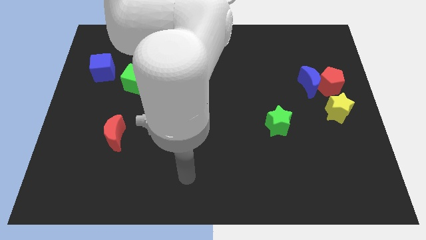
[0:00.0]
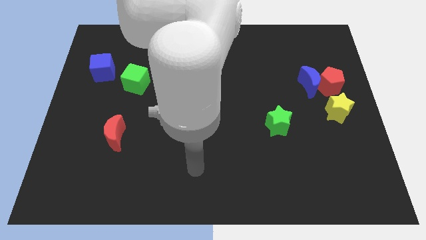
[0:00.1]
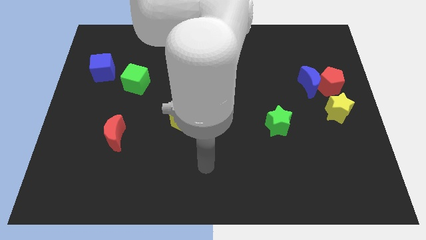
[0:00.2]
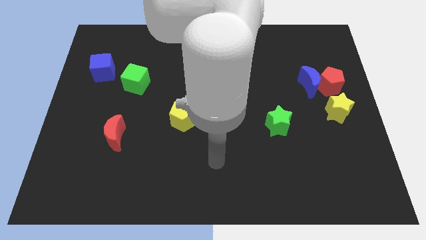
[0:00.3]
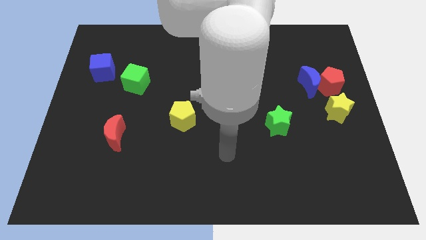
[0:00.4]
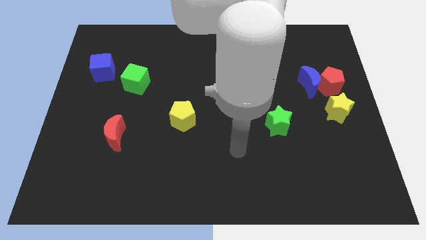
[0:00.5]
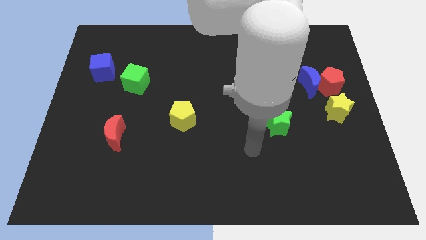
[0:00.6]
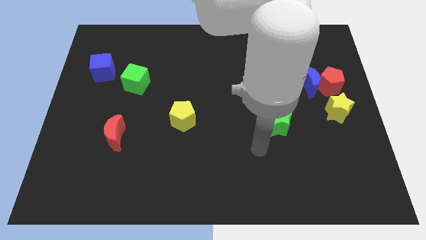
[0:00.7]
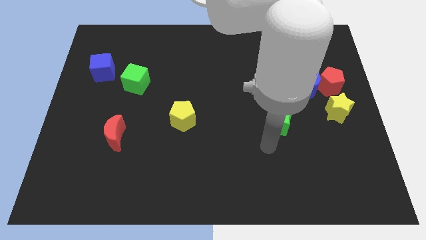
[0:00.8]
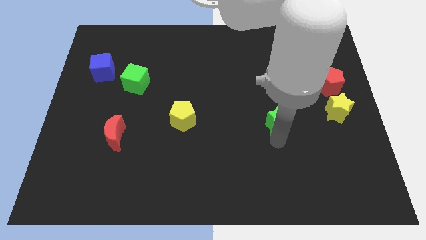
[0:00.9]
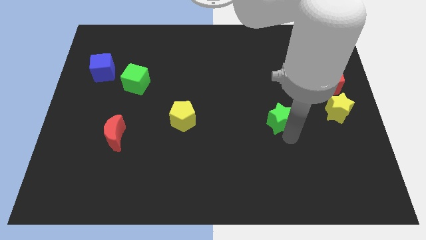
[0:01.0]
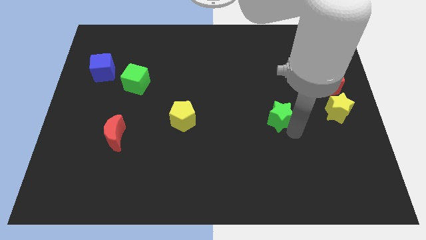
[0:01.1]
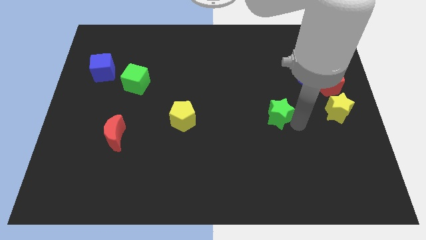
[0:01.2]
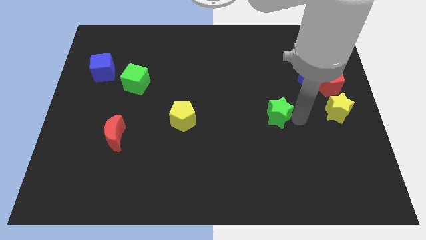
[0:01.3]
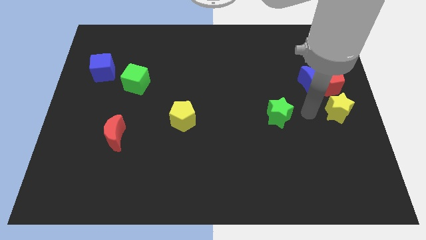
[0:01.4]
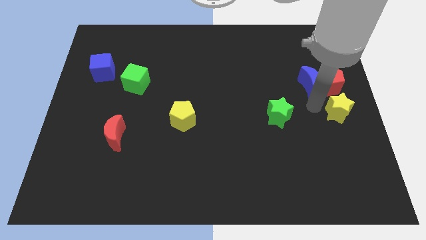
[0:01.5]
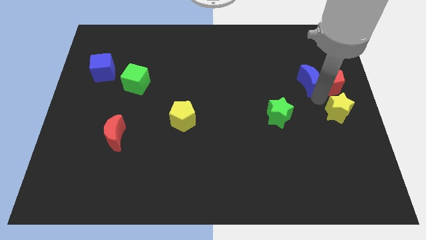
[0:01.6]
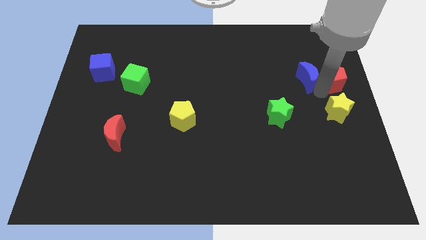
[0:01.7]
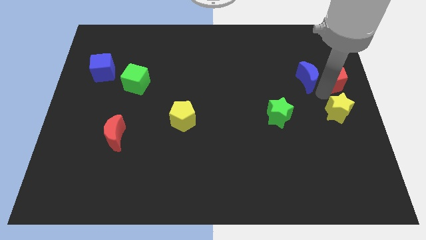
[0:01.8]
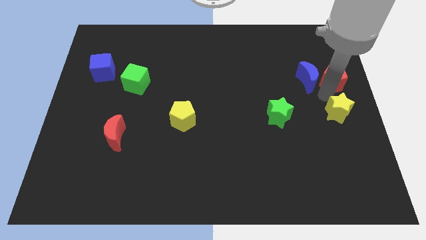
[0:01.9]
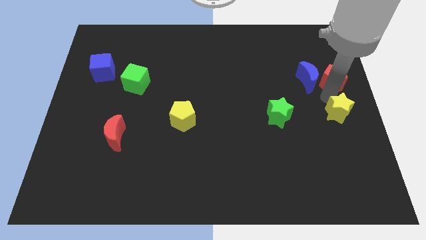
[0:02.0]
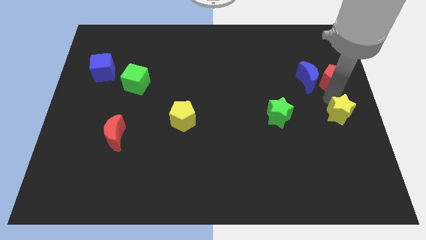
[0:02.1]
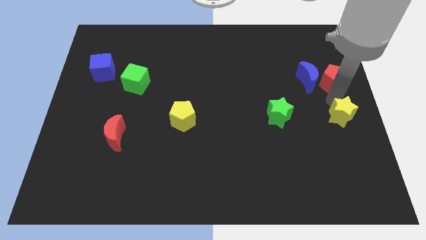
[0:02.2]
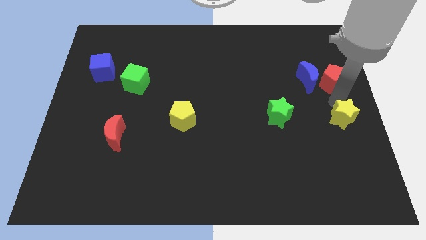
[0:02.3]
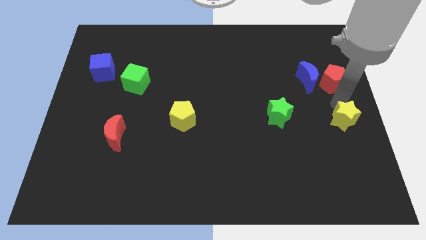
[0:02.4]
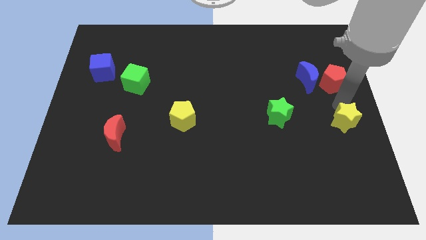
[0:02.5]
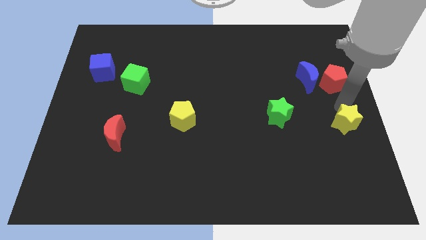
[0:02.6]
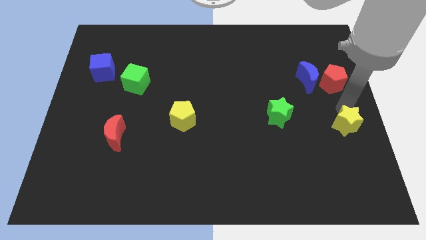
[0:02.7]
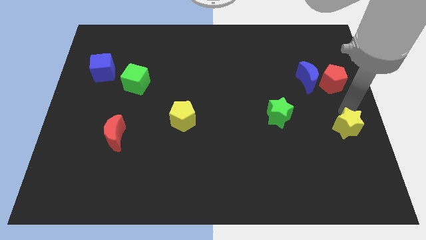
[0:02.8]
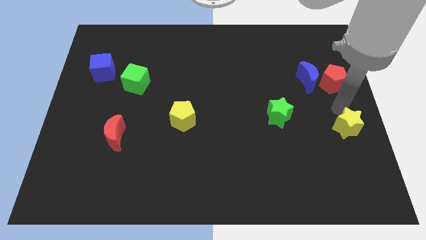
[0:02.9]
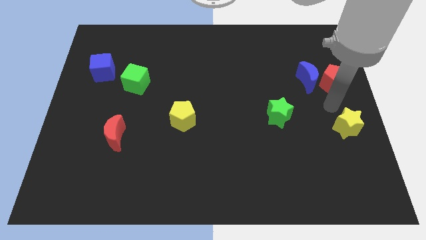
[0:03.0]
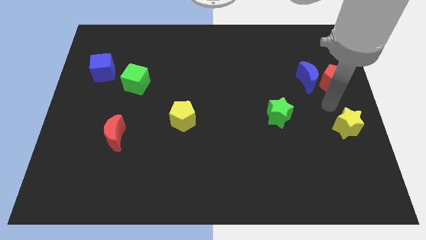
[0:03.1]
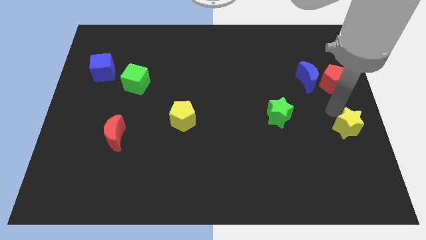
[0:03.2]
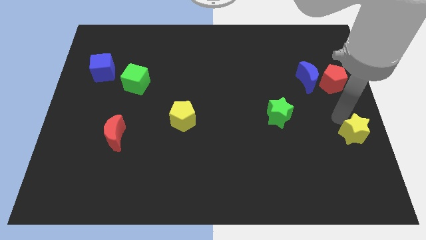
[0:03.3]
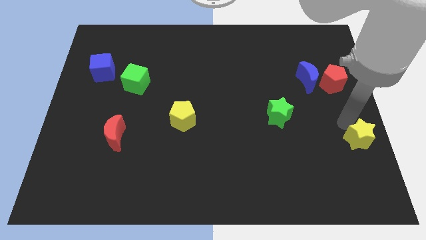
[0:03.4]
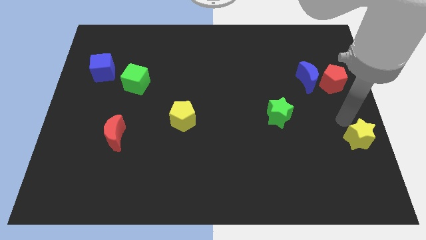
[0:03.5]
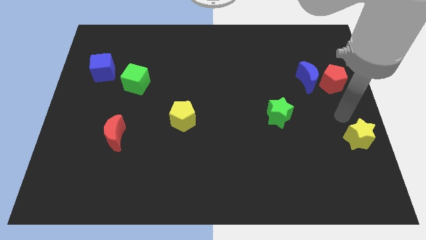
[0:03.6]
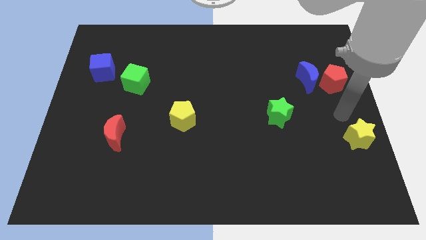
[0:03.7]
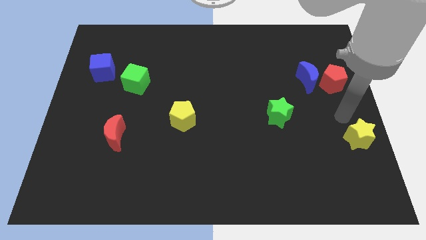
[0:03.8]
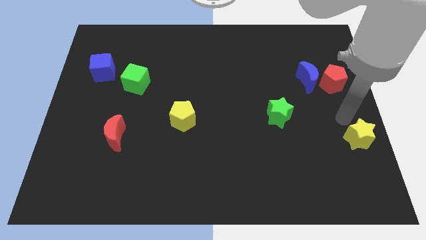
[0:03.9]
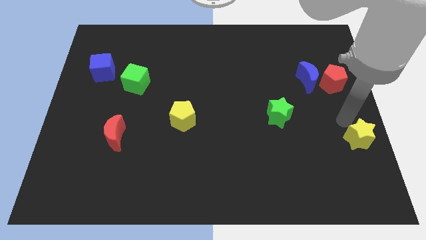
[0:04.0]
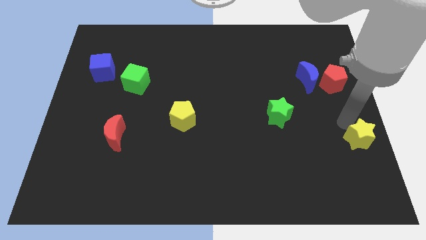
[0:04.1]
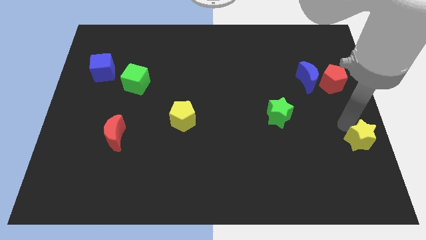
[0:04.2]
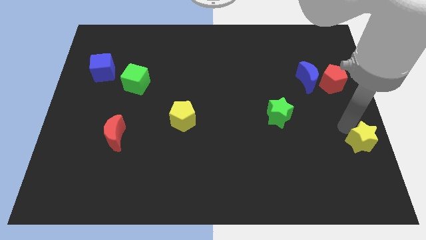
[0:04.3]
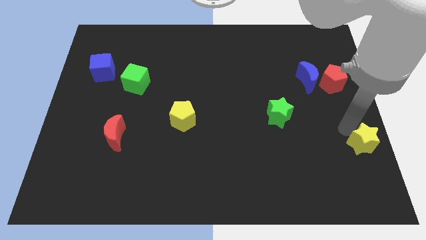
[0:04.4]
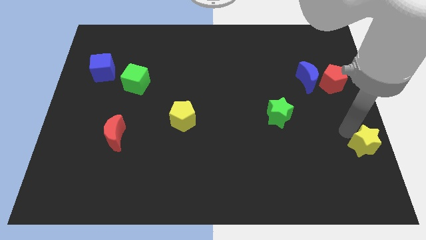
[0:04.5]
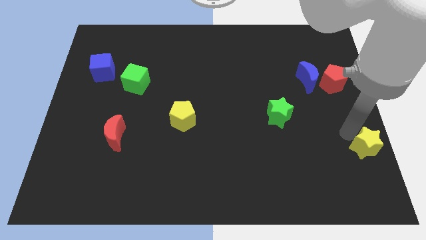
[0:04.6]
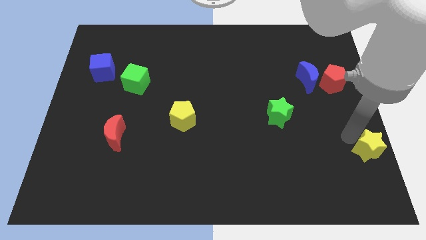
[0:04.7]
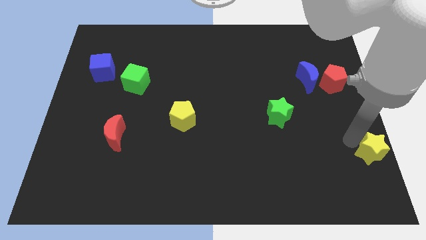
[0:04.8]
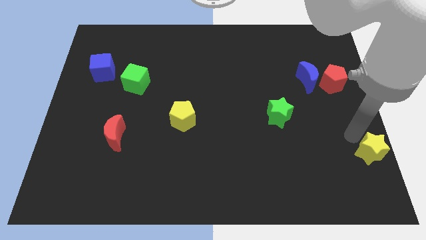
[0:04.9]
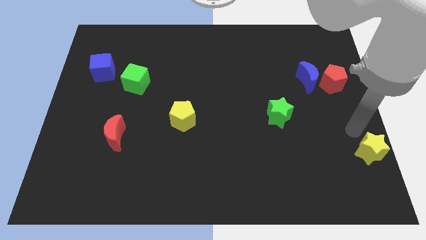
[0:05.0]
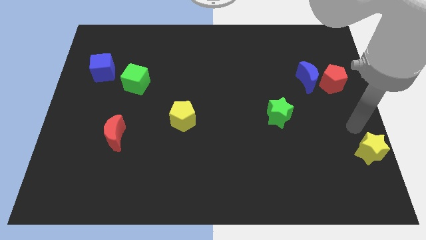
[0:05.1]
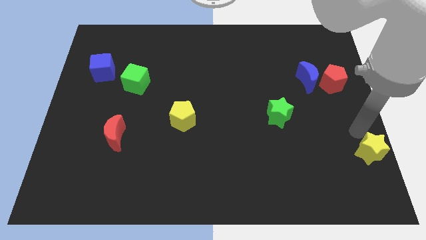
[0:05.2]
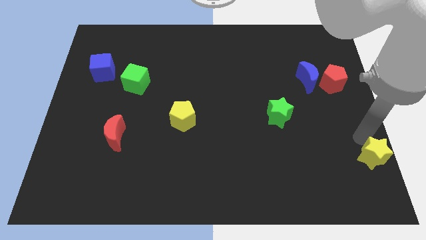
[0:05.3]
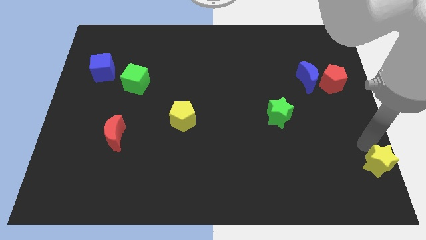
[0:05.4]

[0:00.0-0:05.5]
slide the yellow star to the bottom right corner
